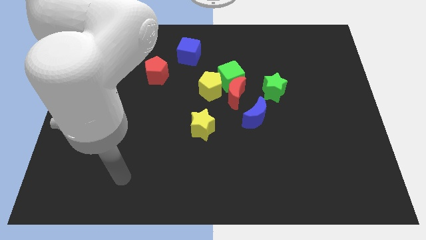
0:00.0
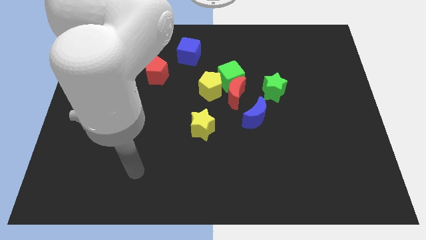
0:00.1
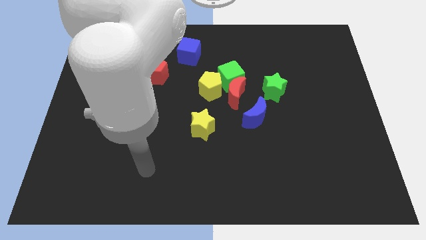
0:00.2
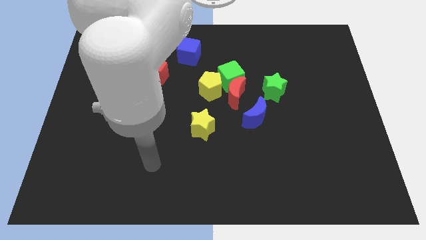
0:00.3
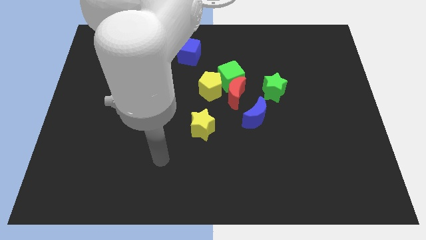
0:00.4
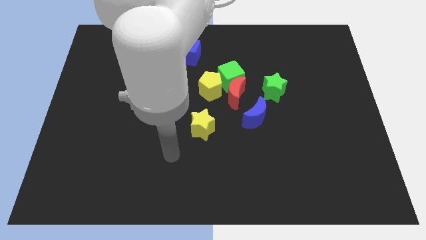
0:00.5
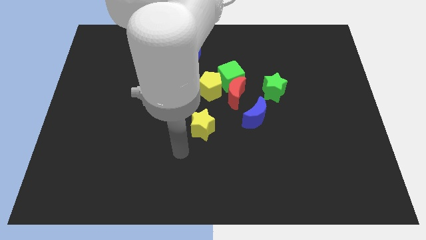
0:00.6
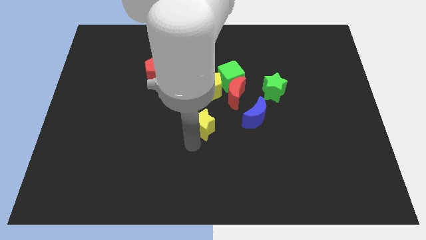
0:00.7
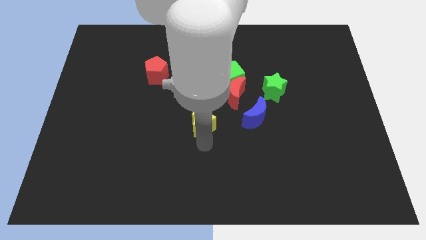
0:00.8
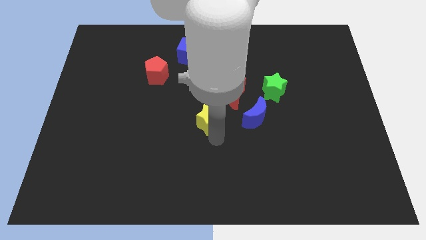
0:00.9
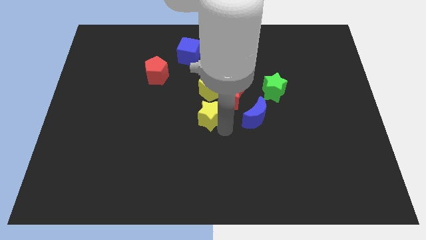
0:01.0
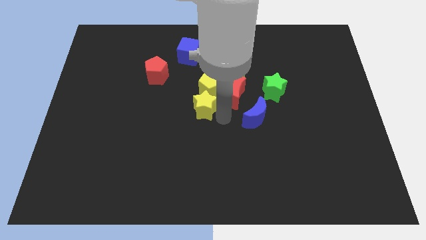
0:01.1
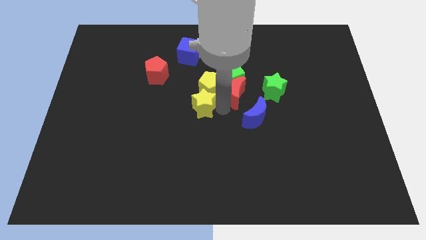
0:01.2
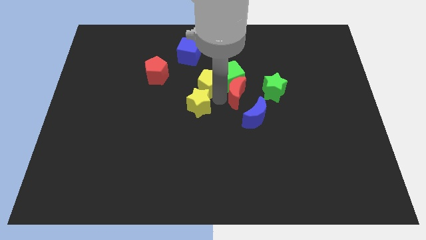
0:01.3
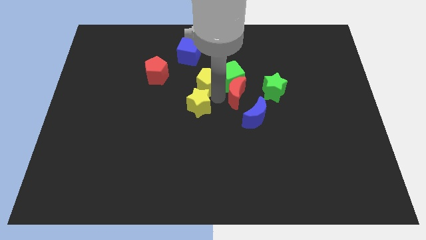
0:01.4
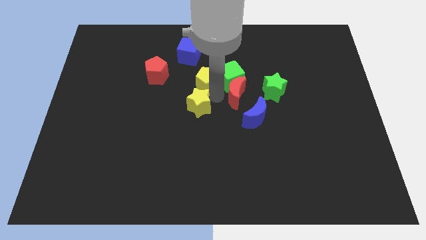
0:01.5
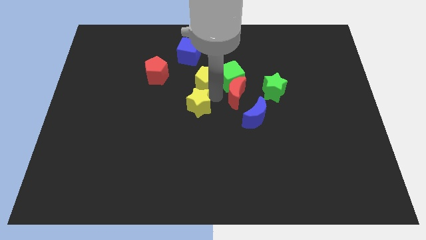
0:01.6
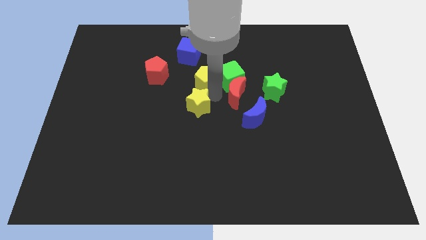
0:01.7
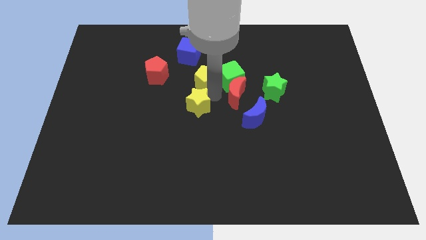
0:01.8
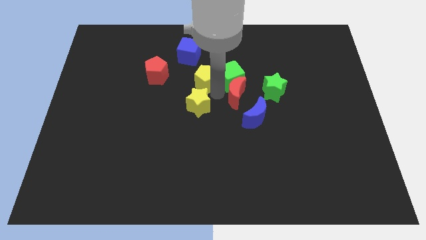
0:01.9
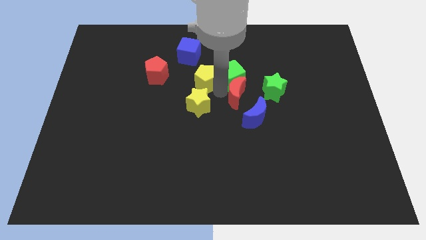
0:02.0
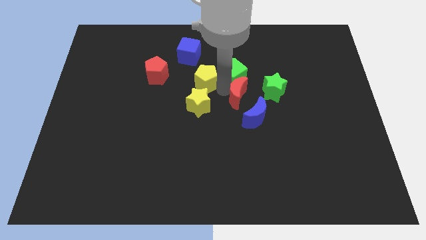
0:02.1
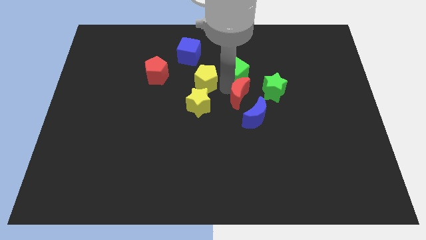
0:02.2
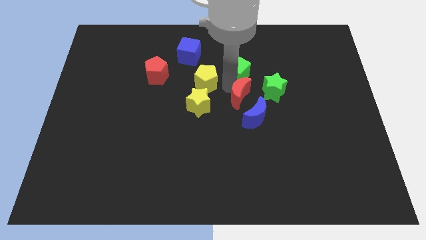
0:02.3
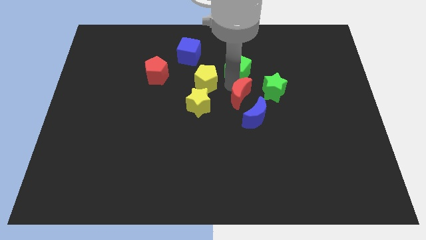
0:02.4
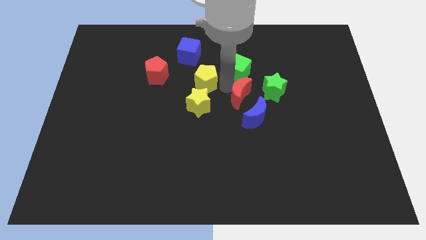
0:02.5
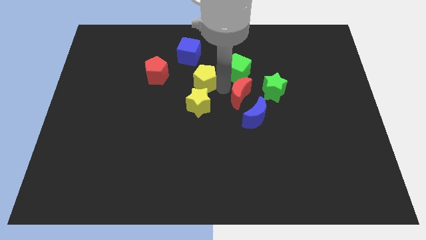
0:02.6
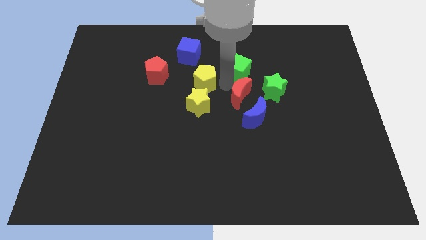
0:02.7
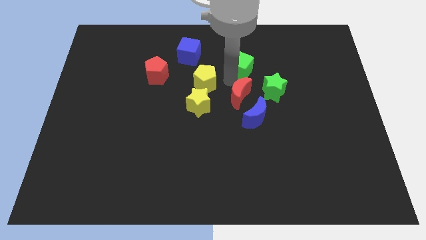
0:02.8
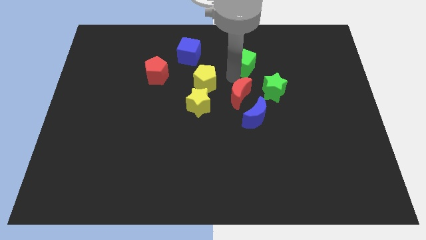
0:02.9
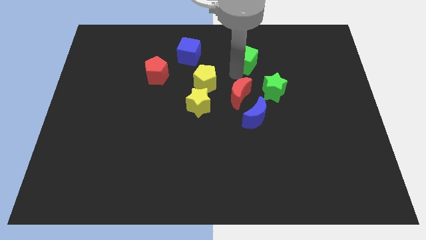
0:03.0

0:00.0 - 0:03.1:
separate the green cube from the red moon and yellow pentagon

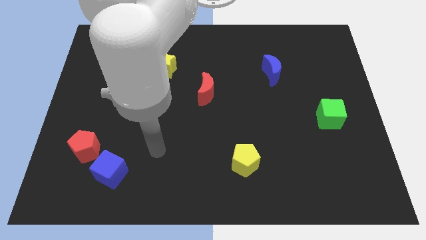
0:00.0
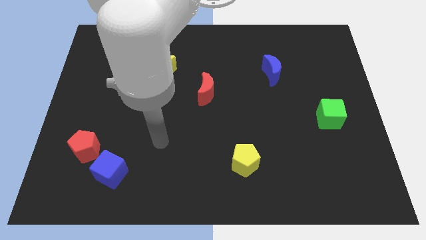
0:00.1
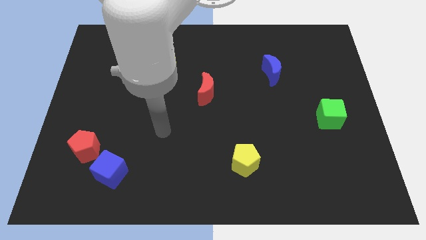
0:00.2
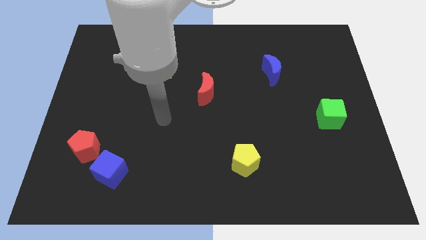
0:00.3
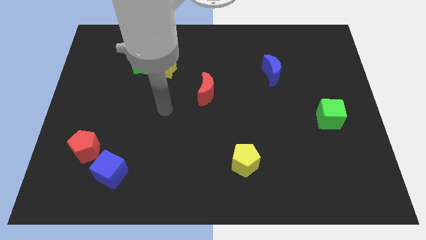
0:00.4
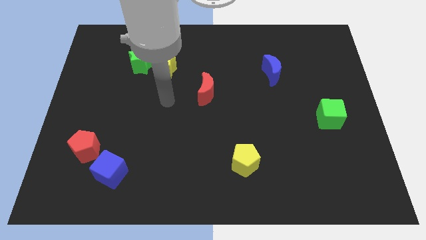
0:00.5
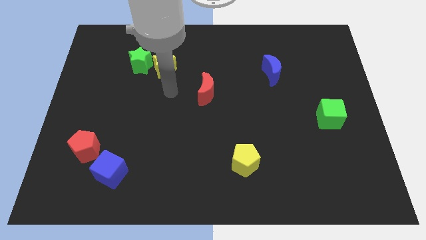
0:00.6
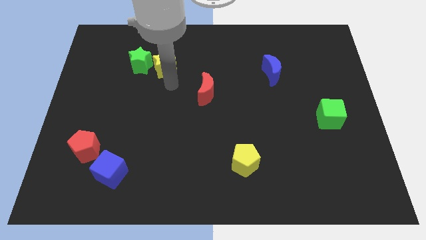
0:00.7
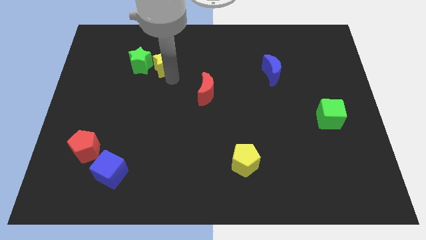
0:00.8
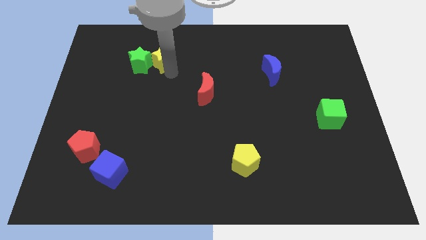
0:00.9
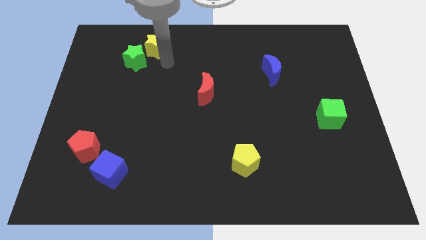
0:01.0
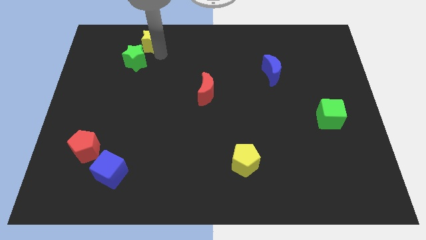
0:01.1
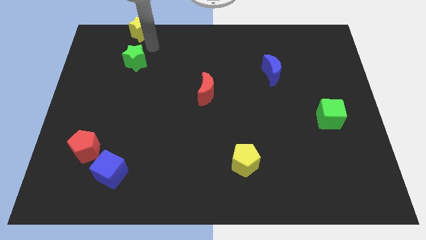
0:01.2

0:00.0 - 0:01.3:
move the green star away from the yellow star

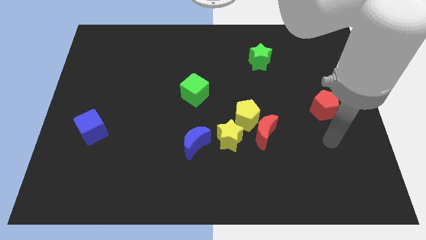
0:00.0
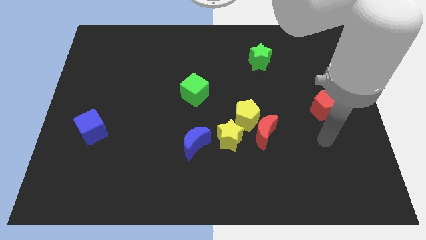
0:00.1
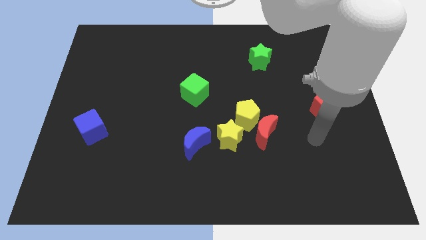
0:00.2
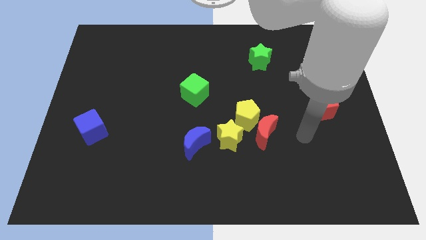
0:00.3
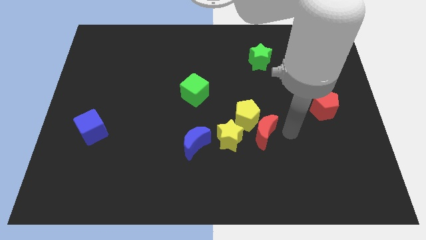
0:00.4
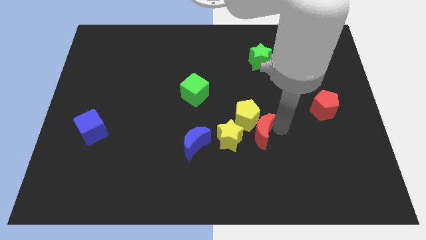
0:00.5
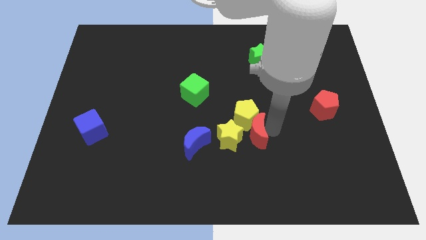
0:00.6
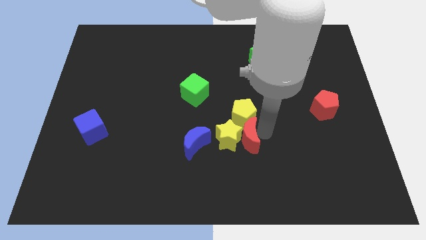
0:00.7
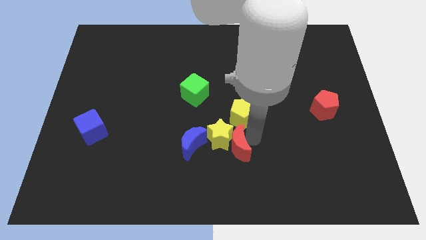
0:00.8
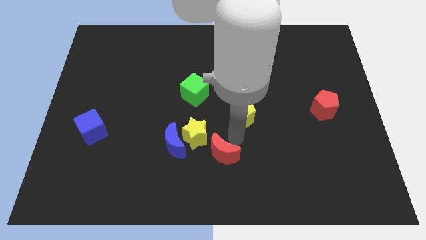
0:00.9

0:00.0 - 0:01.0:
move the yellow pentagon away from the red moon and yellow star

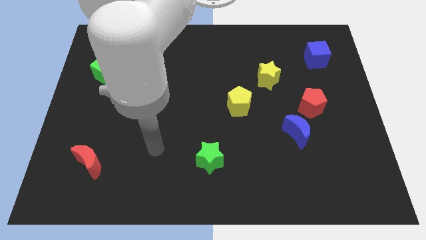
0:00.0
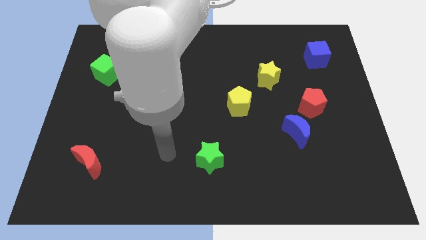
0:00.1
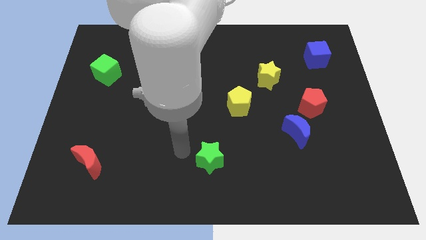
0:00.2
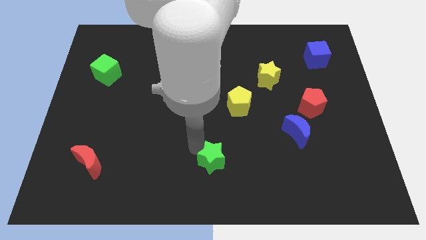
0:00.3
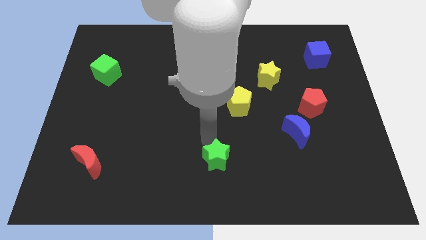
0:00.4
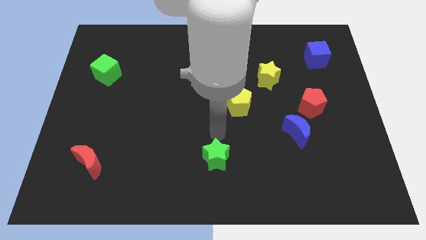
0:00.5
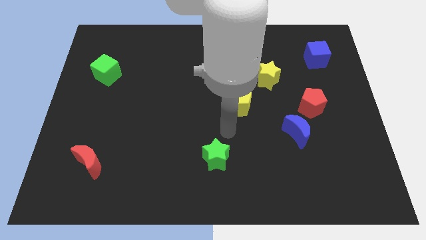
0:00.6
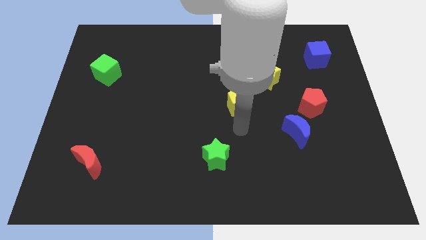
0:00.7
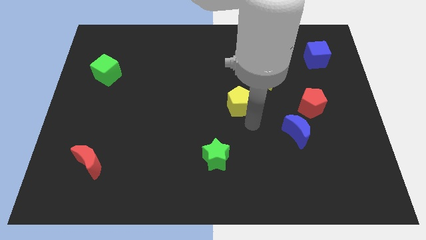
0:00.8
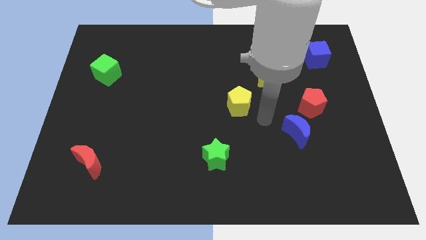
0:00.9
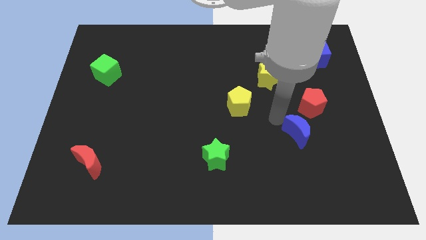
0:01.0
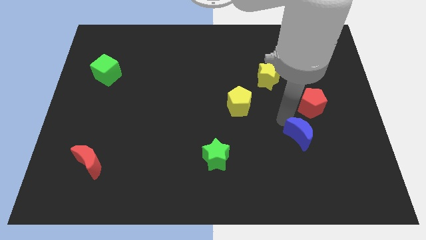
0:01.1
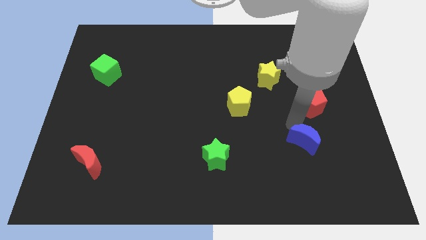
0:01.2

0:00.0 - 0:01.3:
pull the red pentagon apart from the blue moon

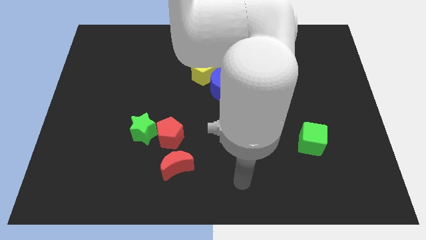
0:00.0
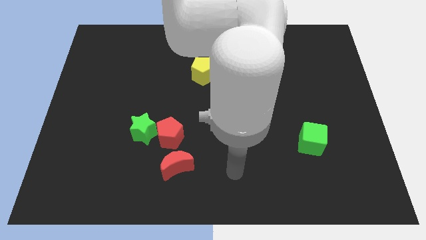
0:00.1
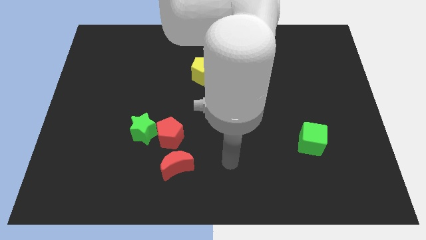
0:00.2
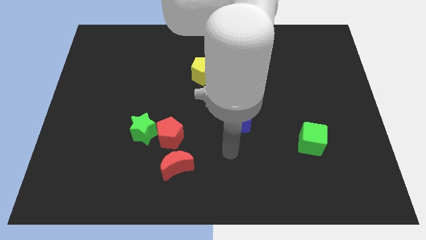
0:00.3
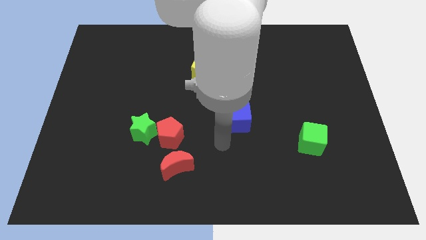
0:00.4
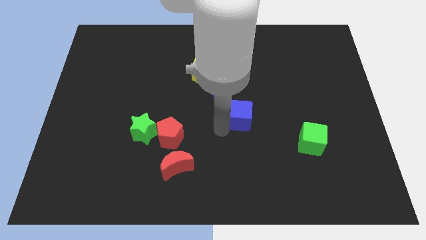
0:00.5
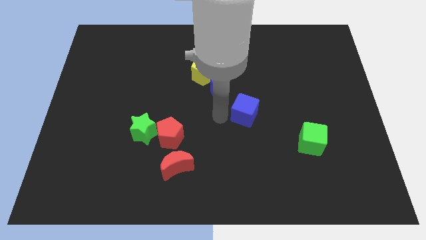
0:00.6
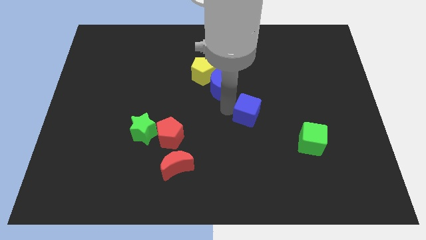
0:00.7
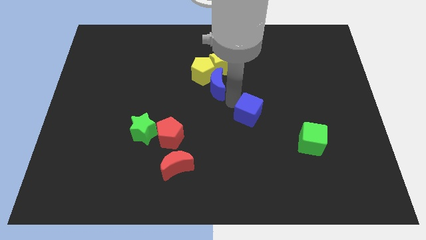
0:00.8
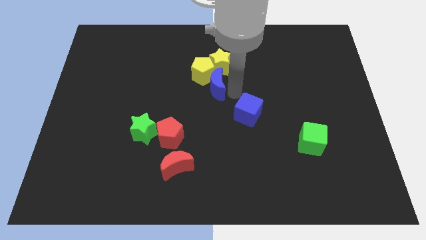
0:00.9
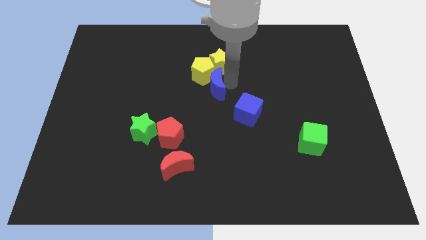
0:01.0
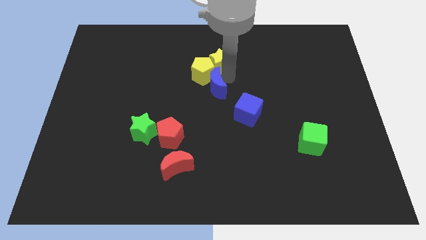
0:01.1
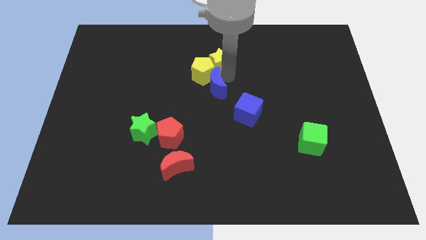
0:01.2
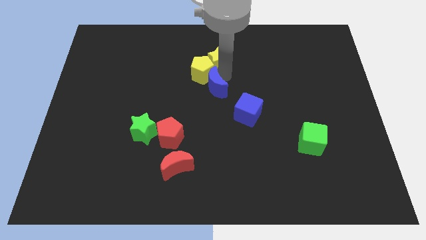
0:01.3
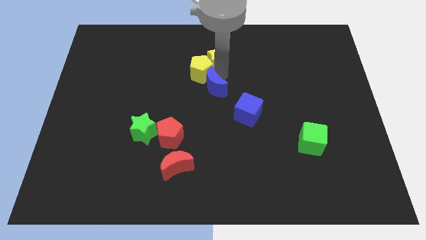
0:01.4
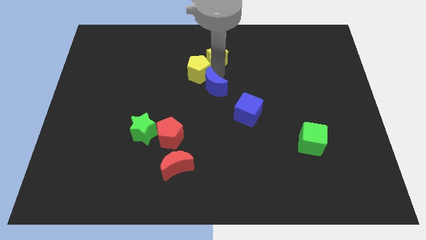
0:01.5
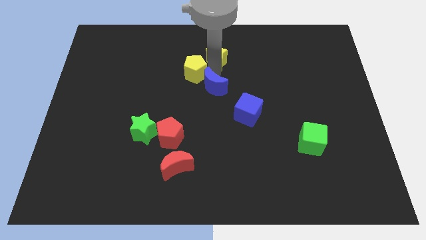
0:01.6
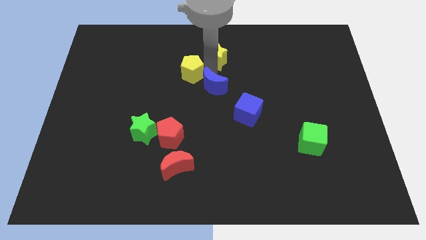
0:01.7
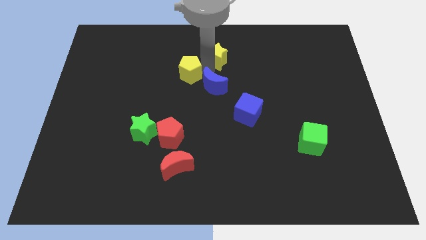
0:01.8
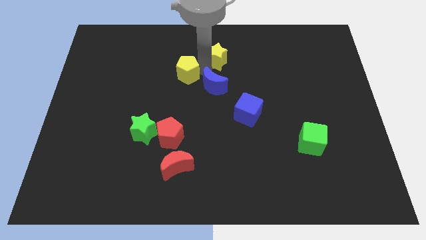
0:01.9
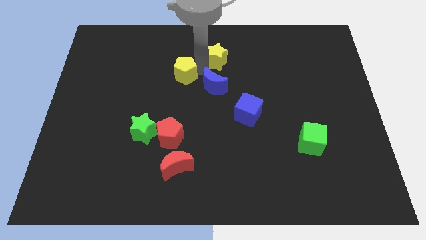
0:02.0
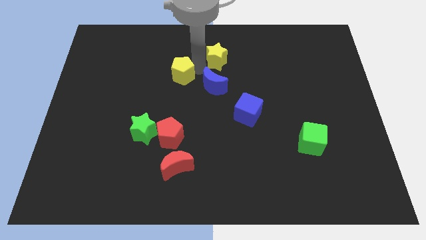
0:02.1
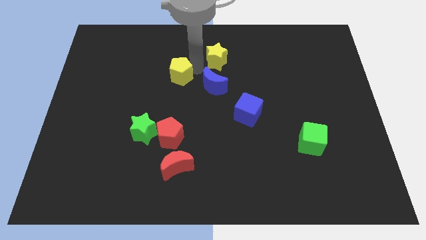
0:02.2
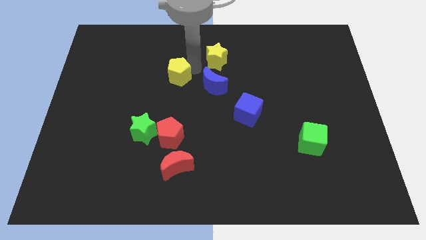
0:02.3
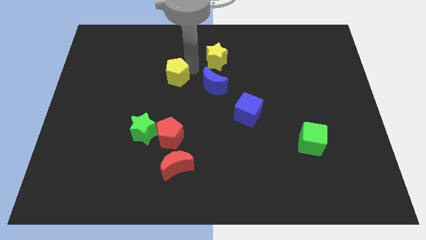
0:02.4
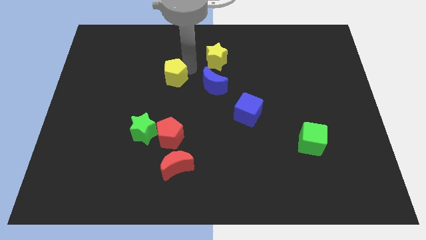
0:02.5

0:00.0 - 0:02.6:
pull the yellow pentagon apart from the yellow star and blue moon

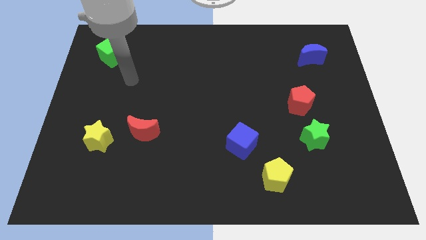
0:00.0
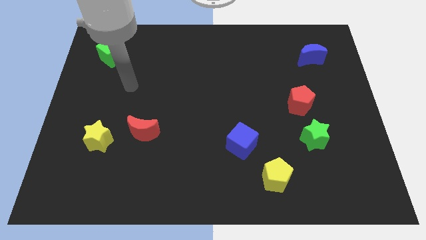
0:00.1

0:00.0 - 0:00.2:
move the red moon away from the yellow star
